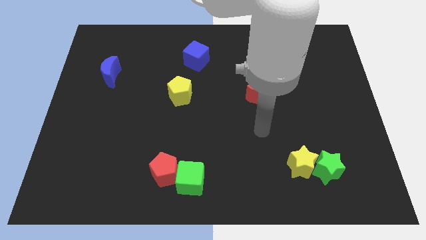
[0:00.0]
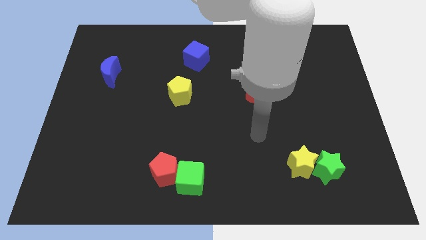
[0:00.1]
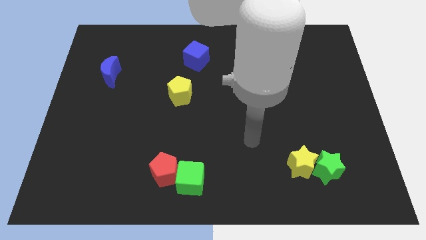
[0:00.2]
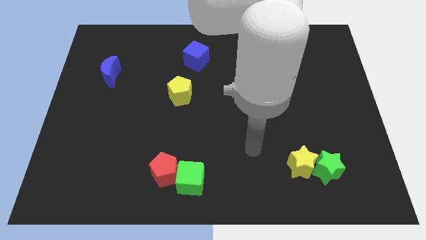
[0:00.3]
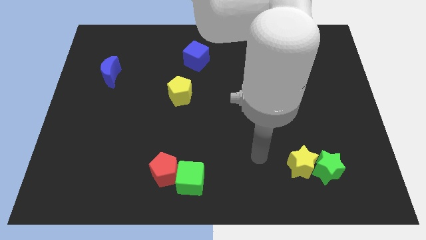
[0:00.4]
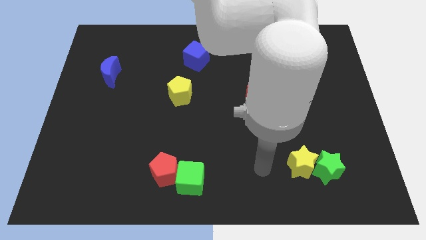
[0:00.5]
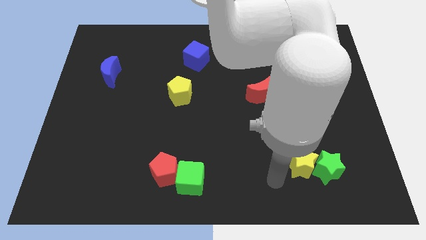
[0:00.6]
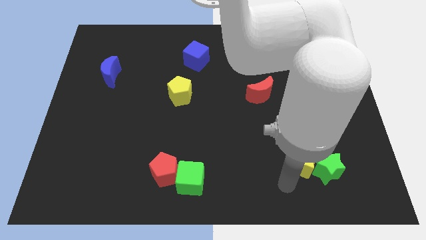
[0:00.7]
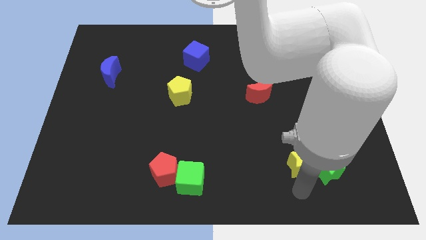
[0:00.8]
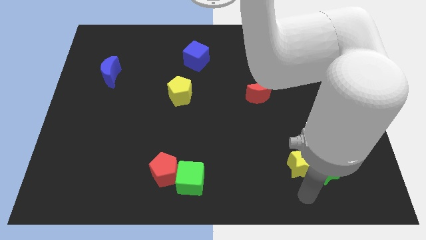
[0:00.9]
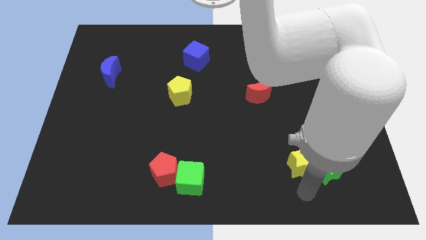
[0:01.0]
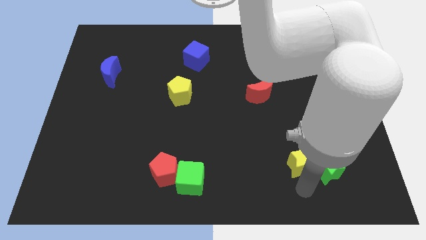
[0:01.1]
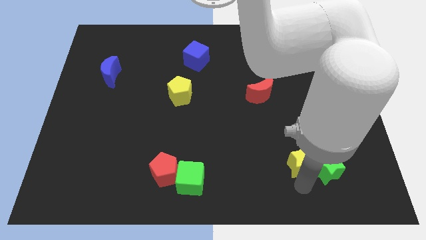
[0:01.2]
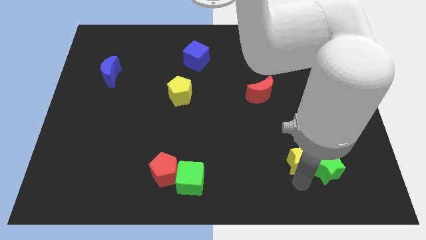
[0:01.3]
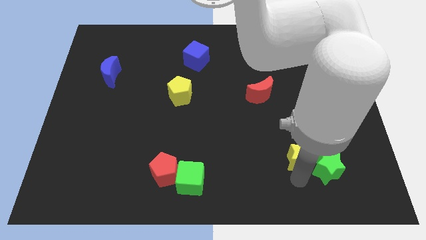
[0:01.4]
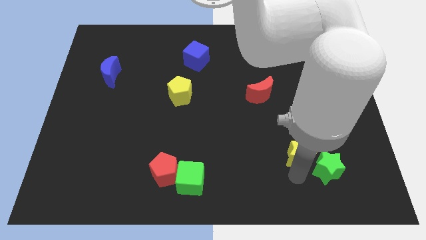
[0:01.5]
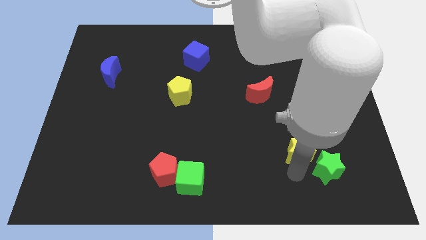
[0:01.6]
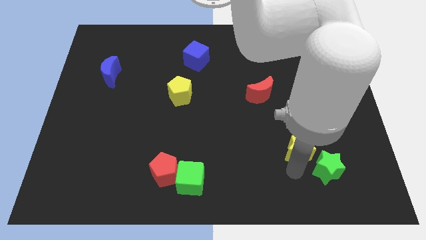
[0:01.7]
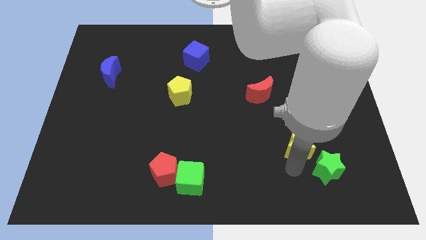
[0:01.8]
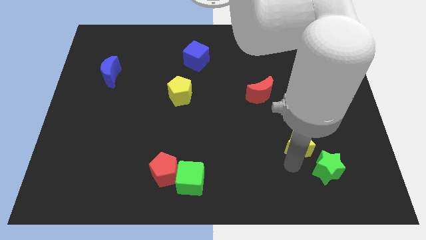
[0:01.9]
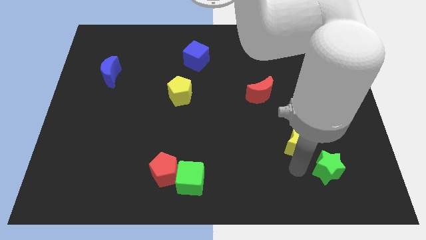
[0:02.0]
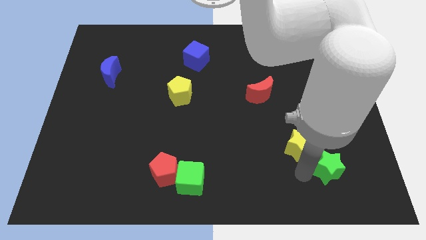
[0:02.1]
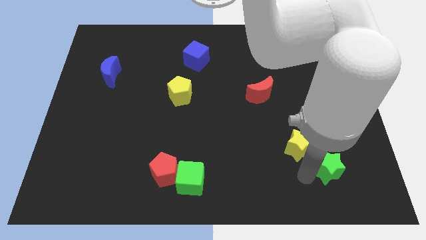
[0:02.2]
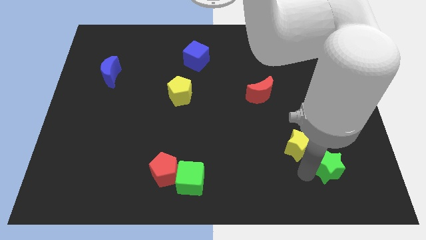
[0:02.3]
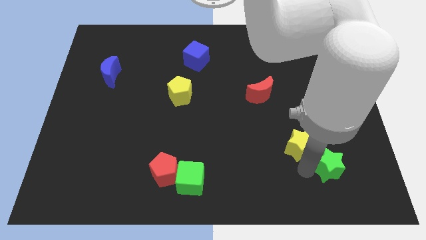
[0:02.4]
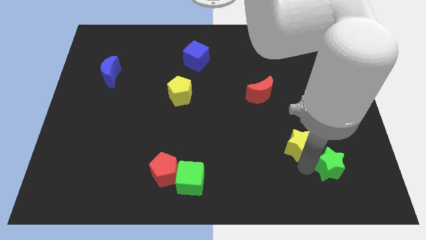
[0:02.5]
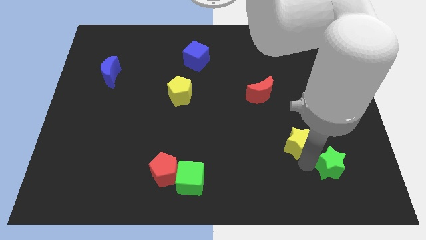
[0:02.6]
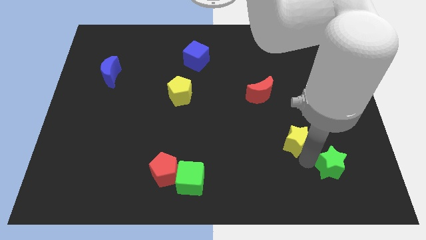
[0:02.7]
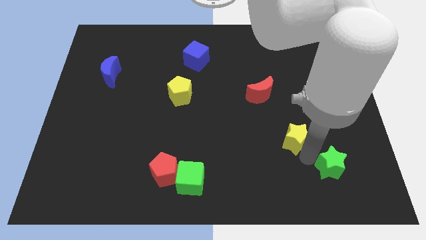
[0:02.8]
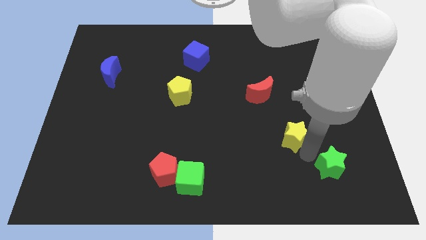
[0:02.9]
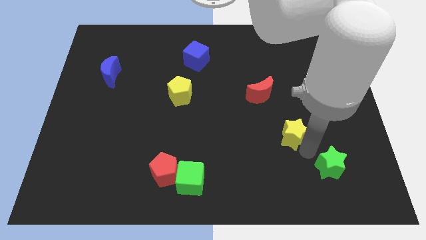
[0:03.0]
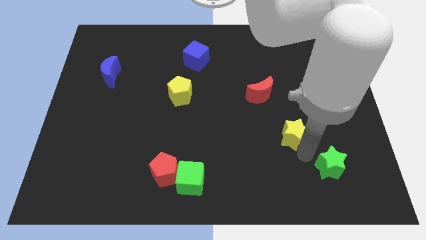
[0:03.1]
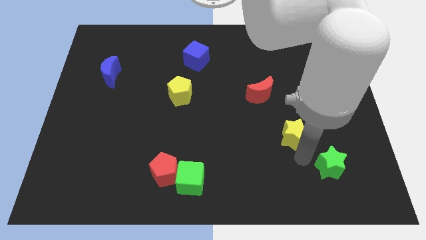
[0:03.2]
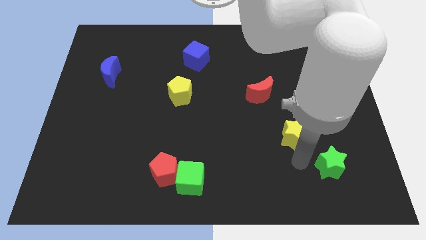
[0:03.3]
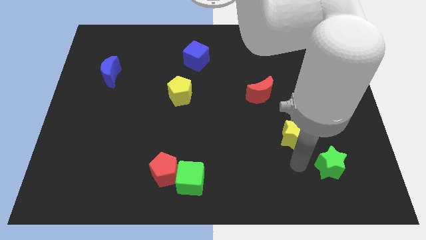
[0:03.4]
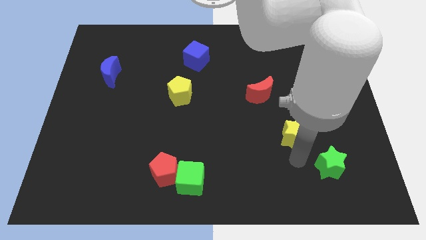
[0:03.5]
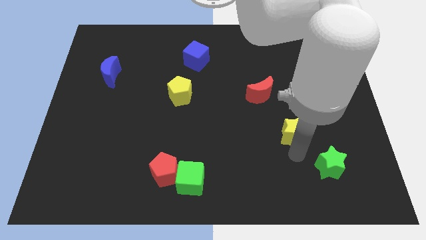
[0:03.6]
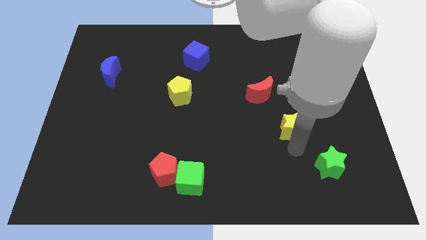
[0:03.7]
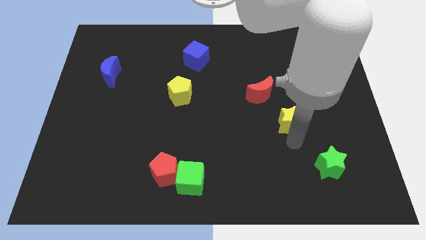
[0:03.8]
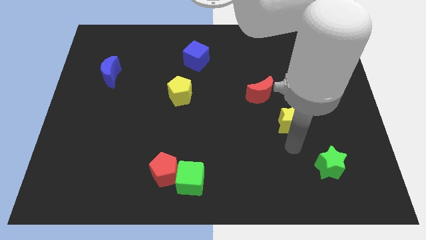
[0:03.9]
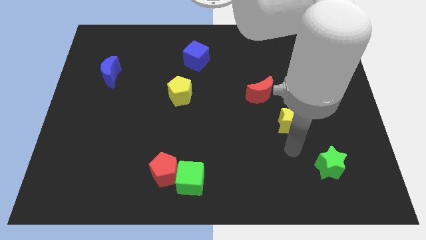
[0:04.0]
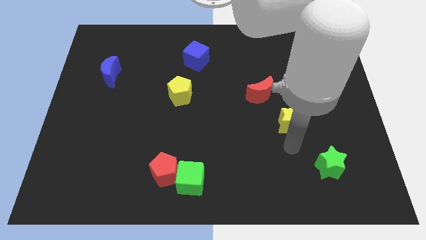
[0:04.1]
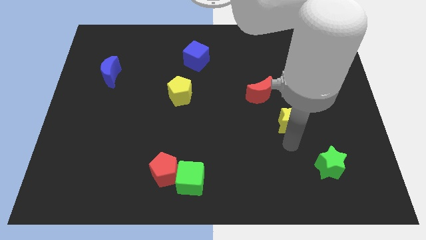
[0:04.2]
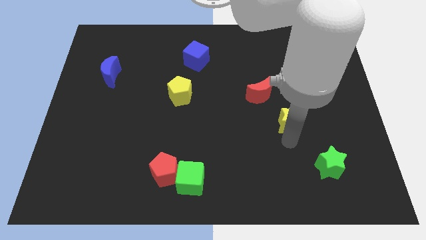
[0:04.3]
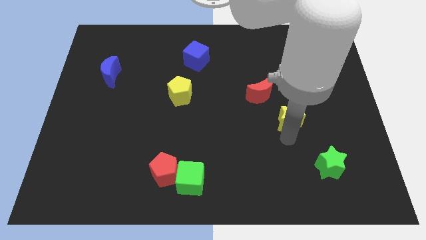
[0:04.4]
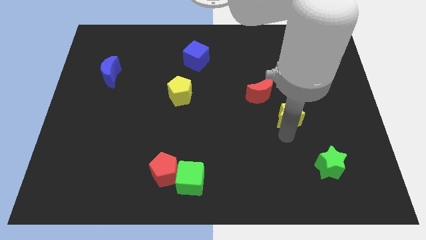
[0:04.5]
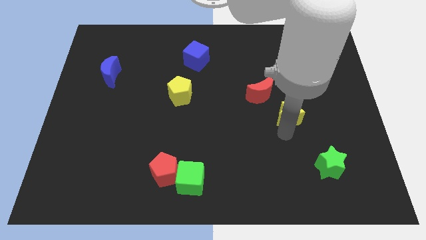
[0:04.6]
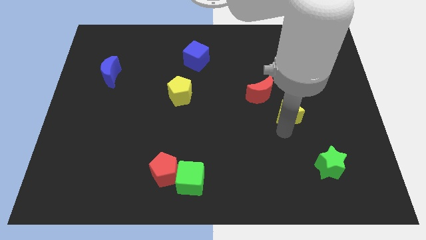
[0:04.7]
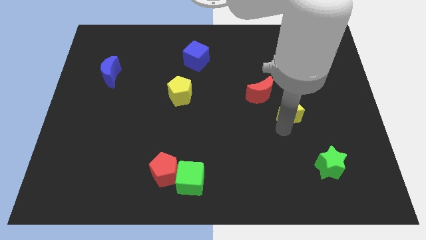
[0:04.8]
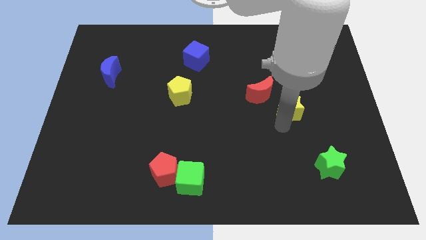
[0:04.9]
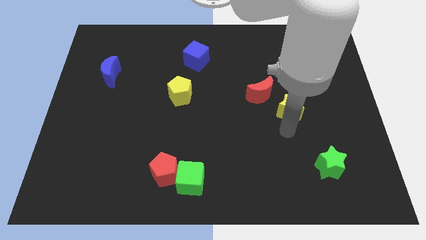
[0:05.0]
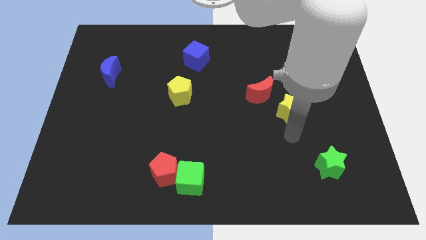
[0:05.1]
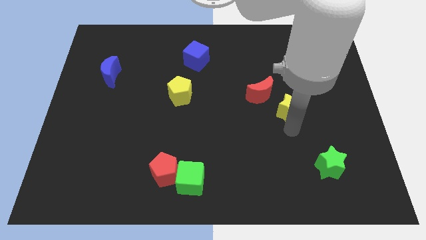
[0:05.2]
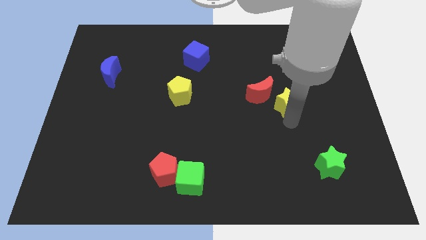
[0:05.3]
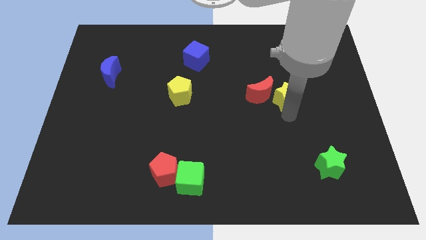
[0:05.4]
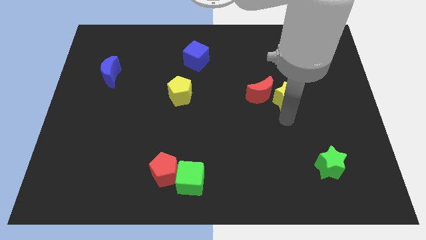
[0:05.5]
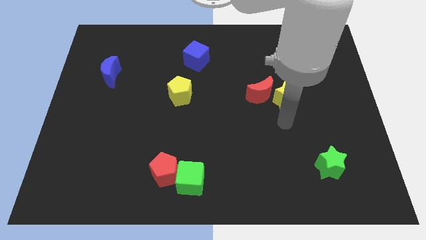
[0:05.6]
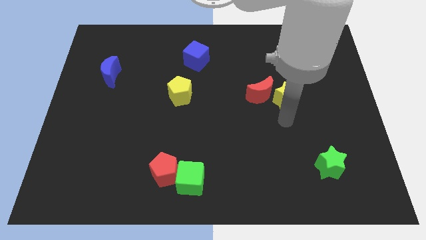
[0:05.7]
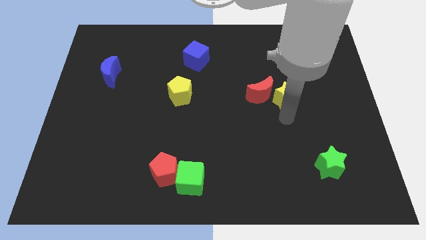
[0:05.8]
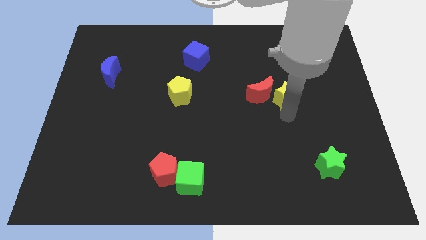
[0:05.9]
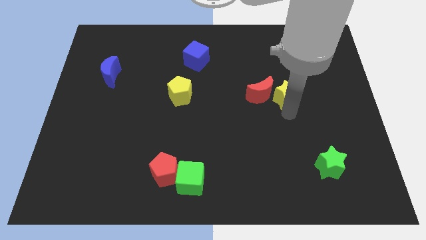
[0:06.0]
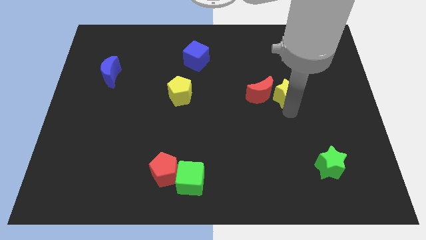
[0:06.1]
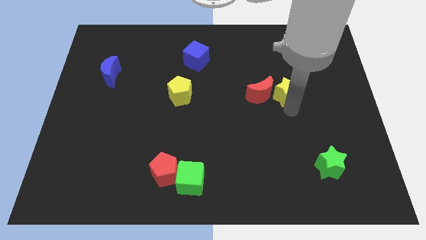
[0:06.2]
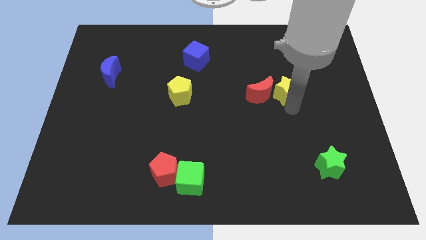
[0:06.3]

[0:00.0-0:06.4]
move the yellow star up

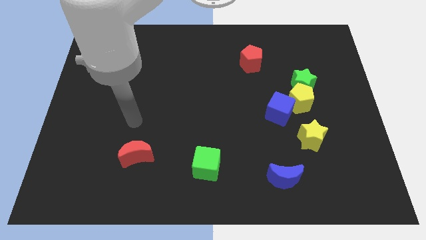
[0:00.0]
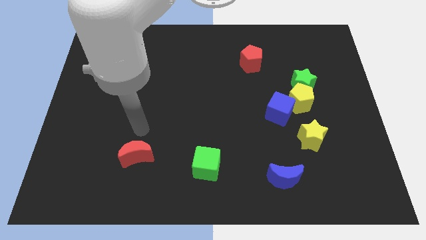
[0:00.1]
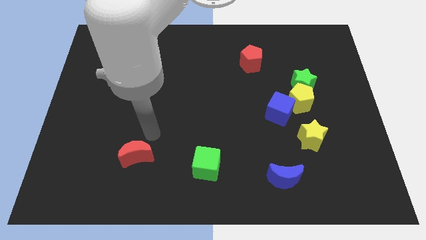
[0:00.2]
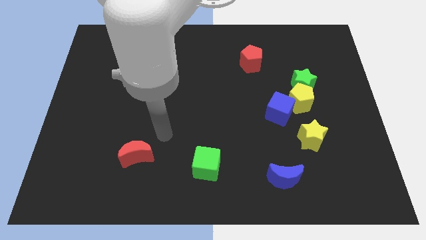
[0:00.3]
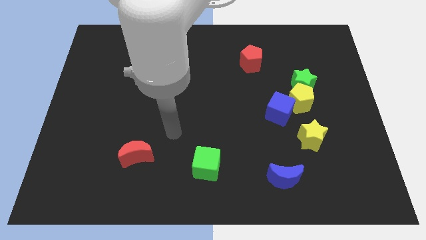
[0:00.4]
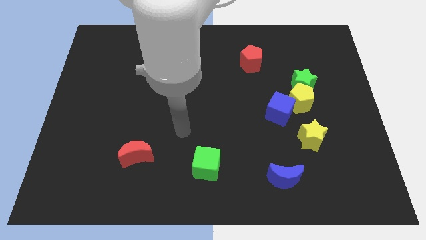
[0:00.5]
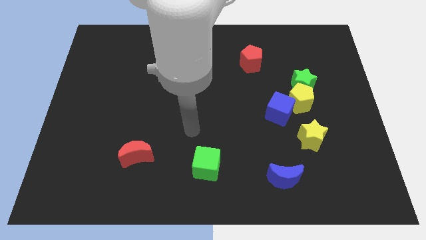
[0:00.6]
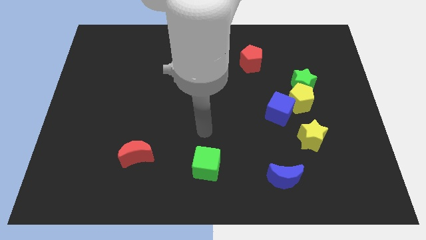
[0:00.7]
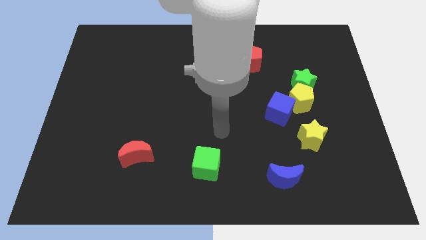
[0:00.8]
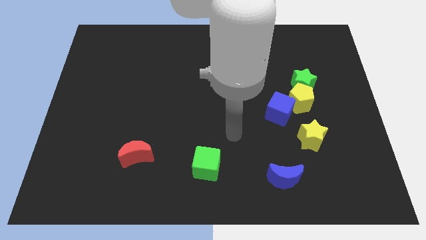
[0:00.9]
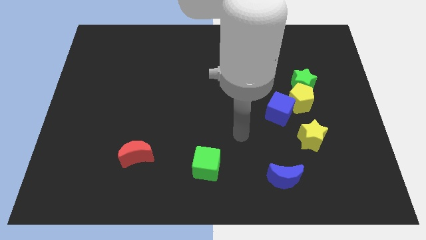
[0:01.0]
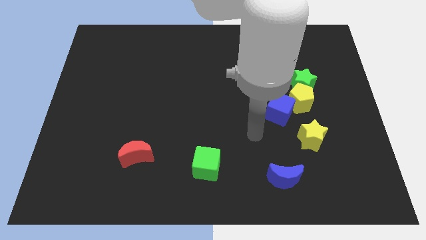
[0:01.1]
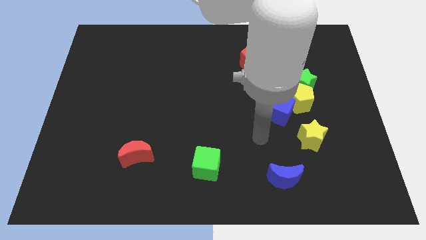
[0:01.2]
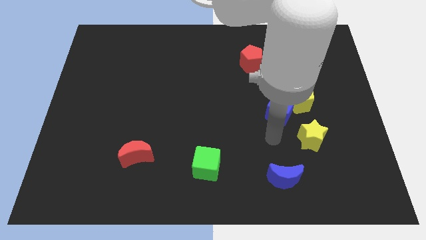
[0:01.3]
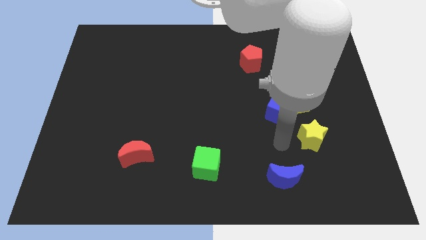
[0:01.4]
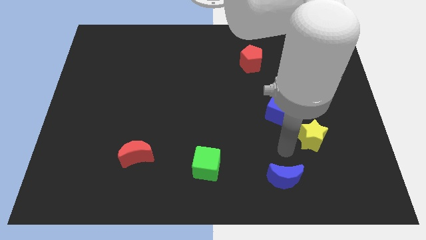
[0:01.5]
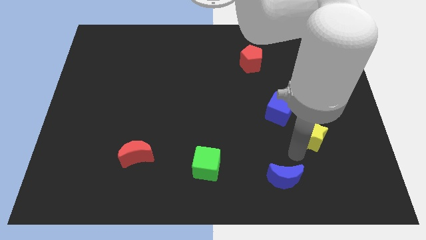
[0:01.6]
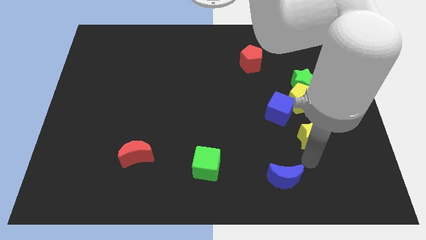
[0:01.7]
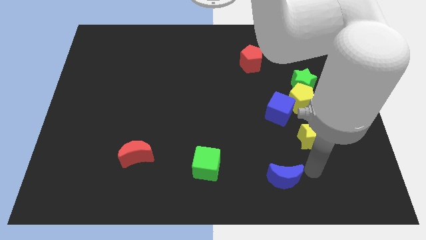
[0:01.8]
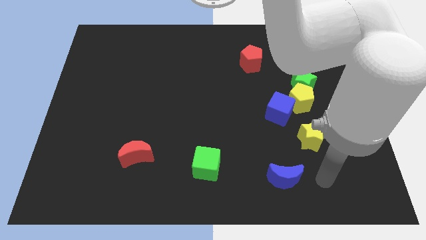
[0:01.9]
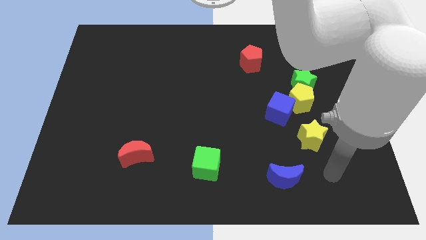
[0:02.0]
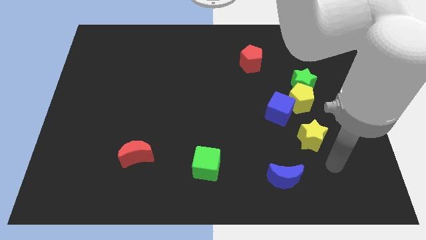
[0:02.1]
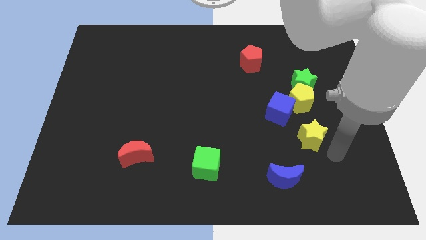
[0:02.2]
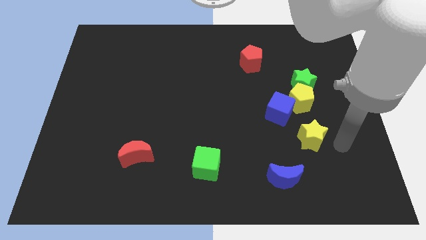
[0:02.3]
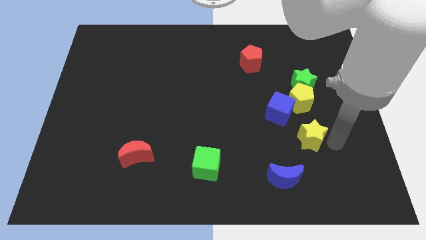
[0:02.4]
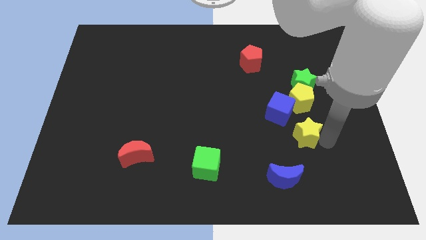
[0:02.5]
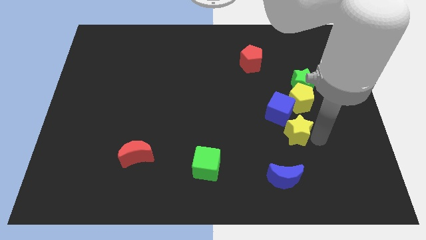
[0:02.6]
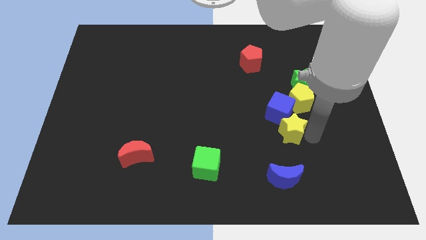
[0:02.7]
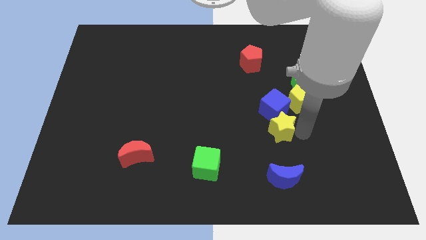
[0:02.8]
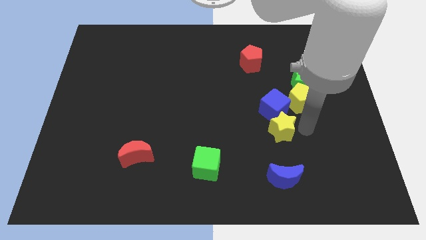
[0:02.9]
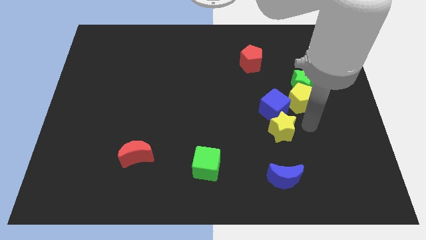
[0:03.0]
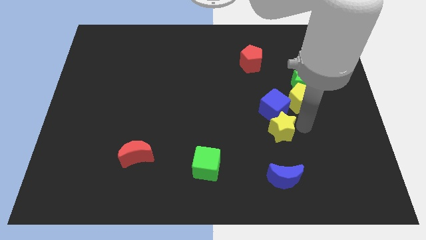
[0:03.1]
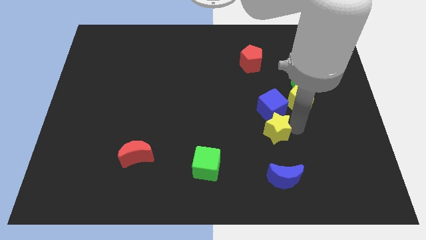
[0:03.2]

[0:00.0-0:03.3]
move the yellow star slightly left
